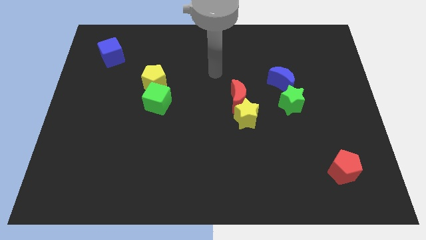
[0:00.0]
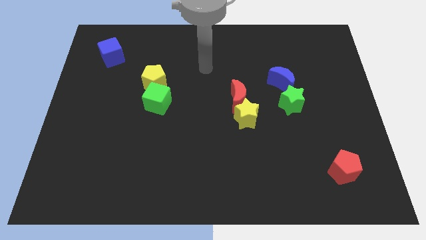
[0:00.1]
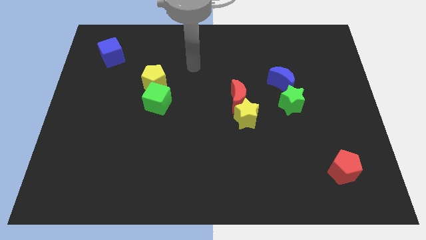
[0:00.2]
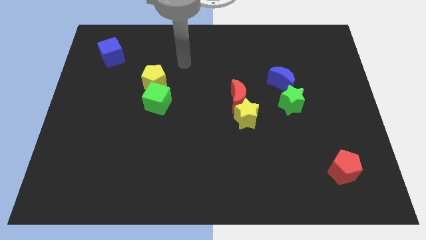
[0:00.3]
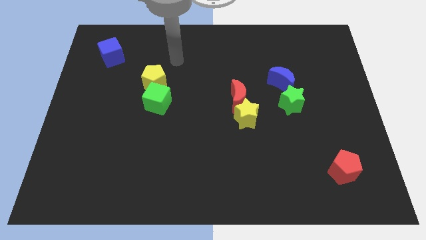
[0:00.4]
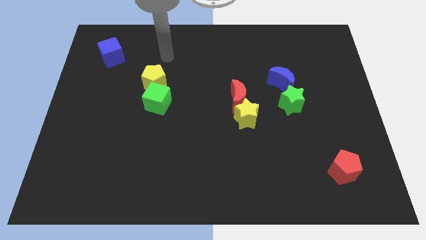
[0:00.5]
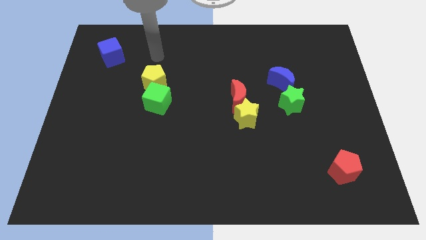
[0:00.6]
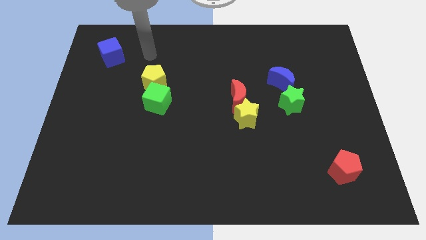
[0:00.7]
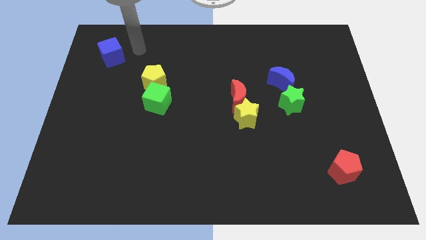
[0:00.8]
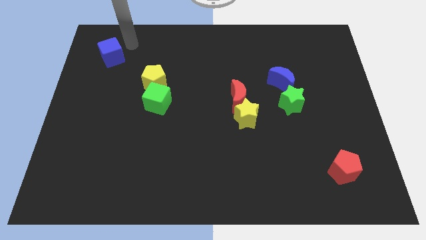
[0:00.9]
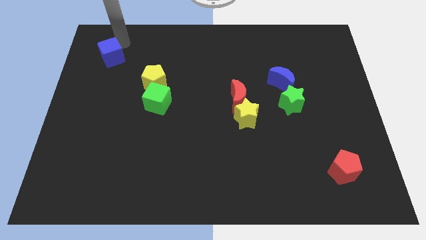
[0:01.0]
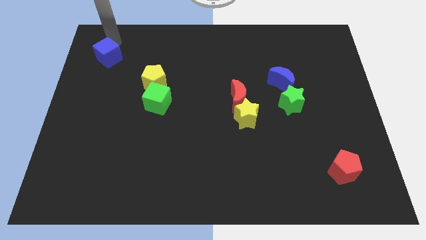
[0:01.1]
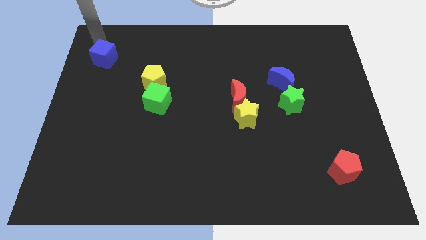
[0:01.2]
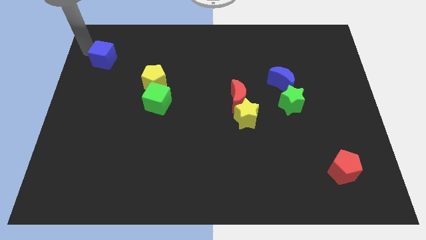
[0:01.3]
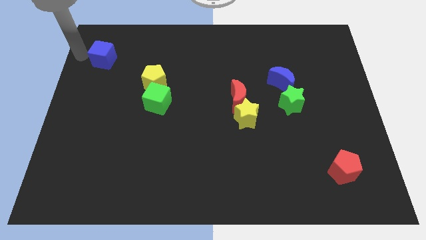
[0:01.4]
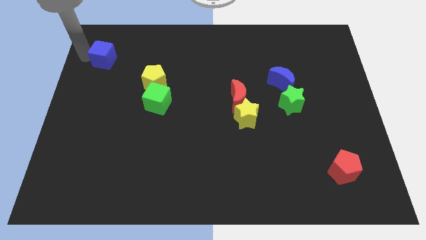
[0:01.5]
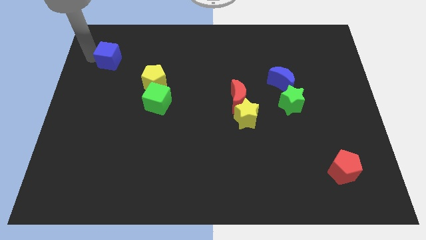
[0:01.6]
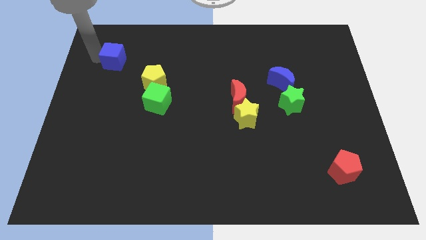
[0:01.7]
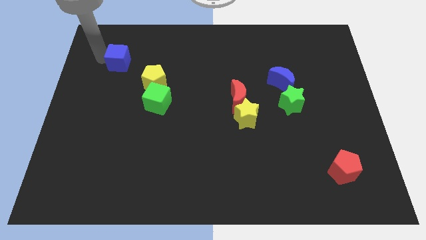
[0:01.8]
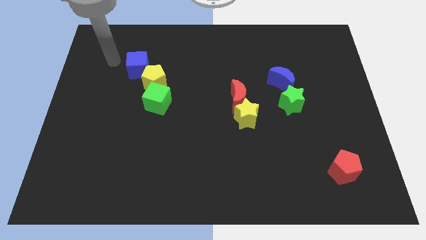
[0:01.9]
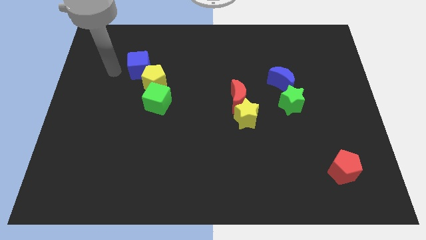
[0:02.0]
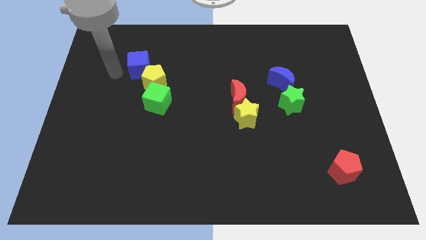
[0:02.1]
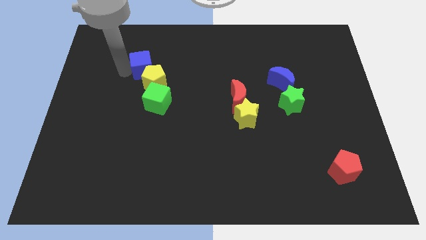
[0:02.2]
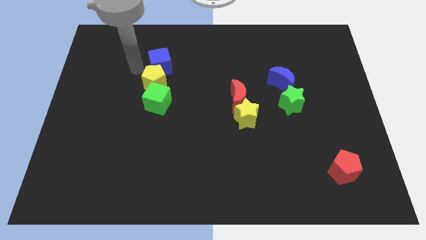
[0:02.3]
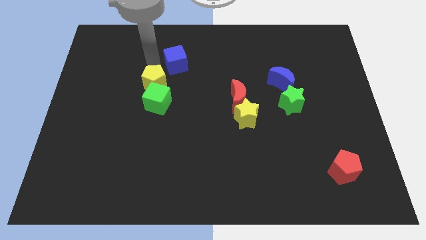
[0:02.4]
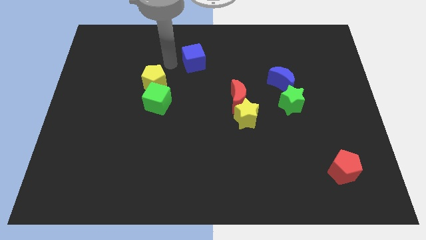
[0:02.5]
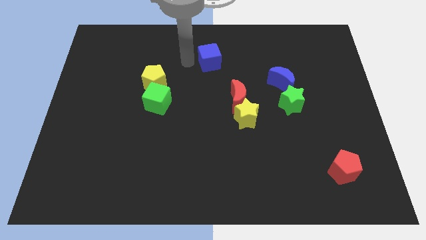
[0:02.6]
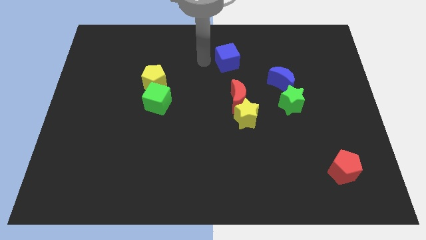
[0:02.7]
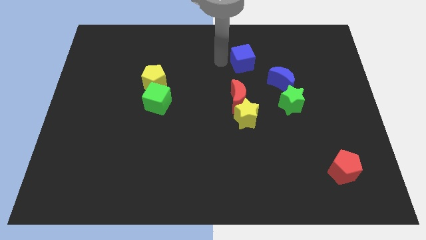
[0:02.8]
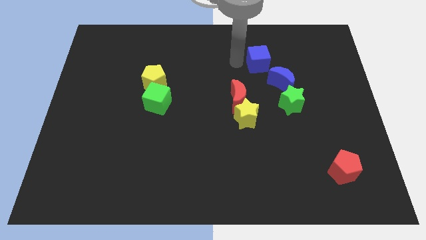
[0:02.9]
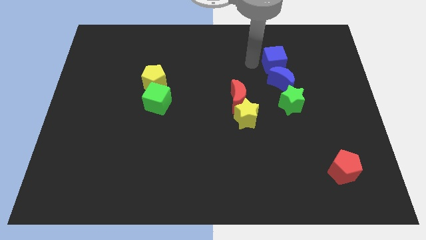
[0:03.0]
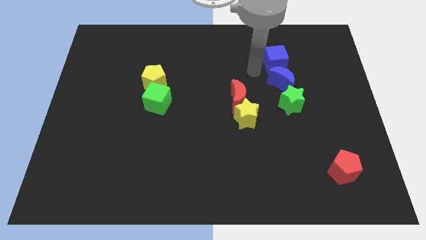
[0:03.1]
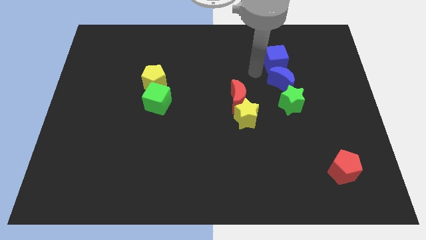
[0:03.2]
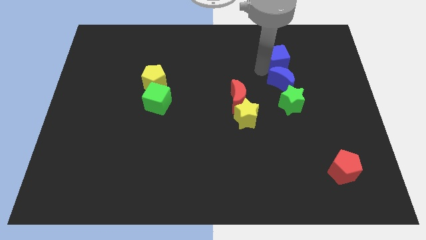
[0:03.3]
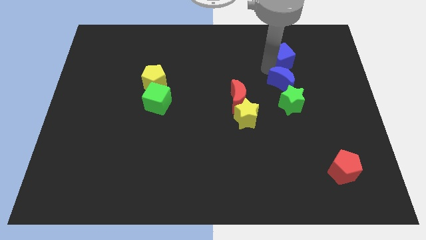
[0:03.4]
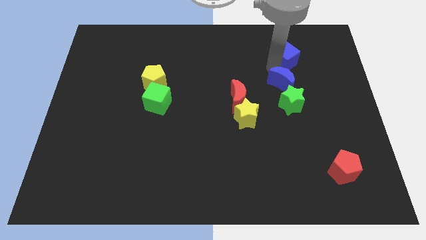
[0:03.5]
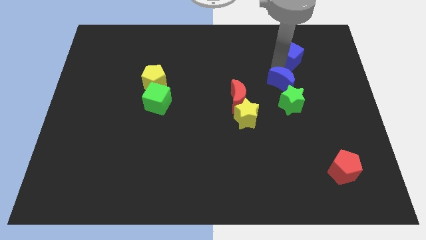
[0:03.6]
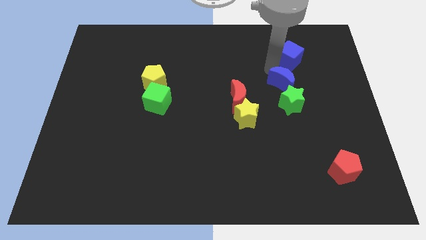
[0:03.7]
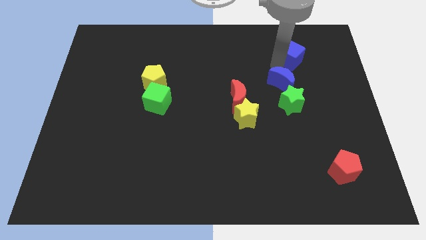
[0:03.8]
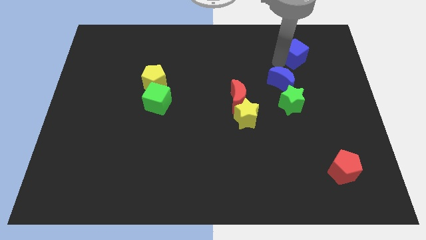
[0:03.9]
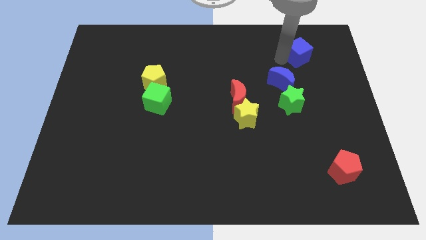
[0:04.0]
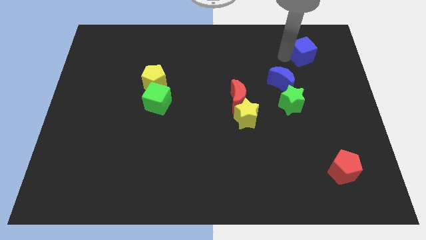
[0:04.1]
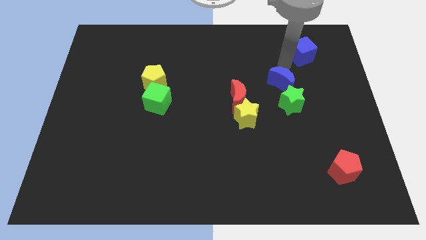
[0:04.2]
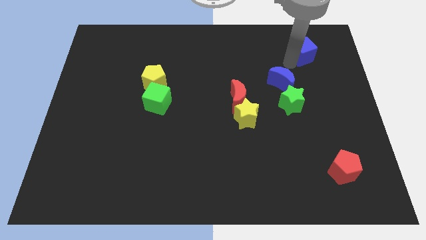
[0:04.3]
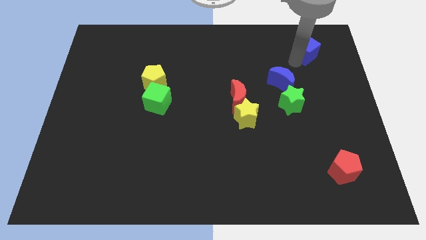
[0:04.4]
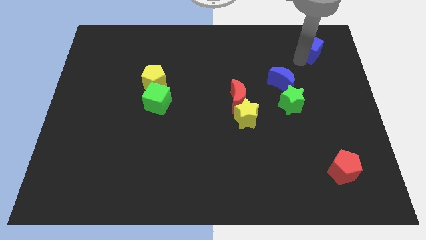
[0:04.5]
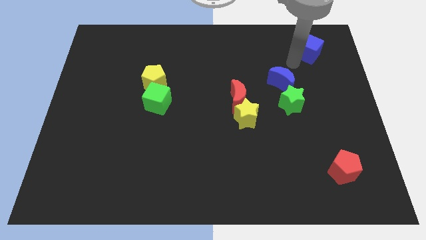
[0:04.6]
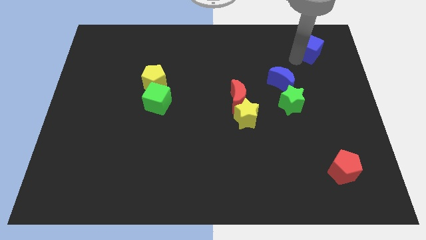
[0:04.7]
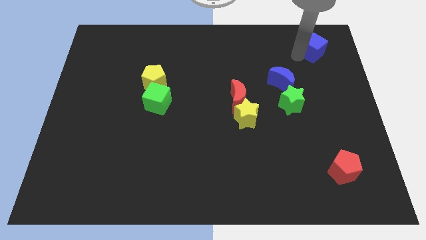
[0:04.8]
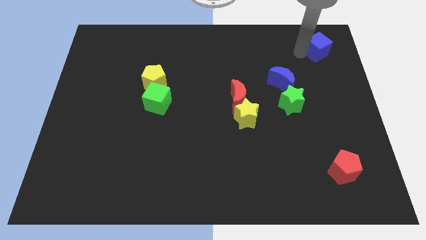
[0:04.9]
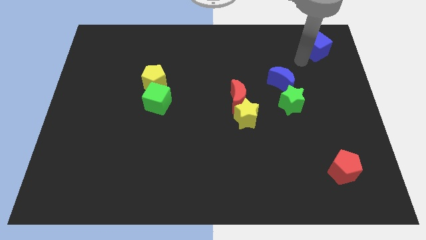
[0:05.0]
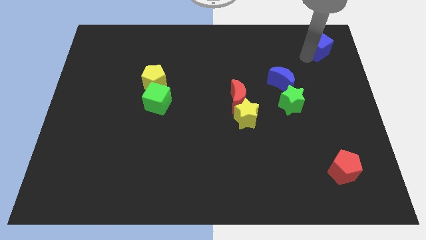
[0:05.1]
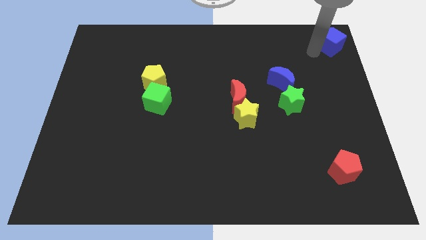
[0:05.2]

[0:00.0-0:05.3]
slide the blue cube to the top right of the board

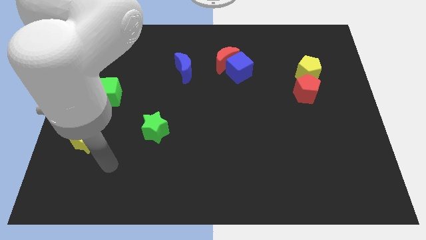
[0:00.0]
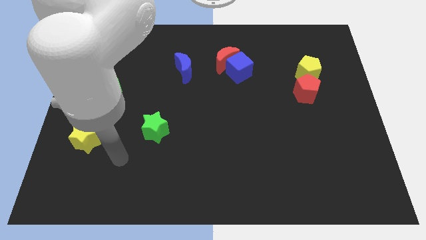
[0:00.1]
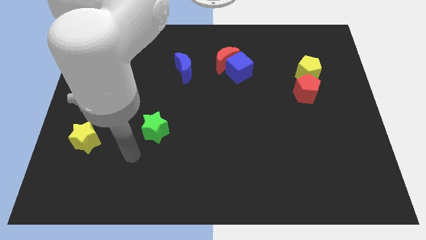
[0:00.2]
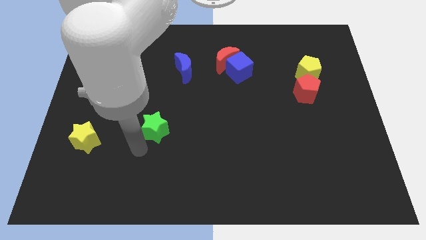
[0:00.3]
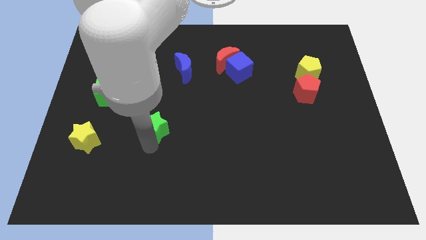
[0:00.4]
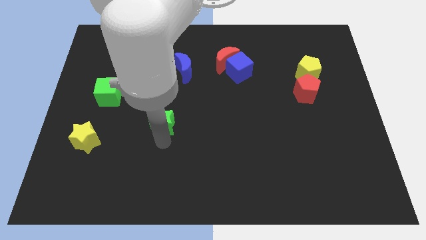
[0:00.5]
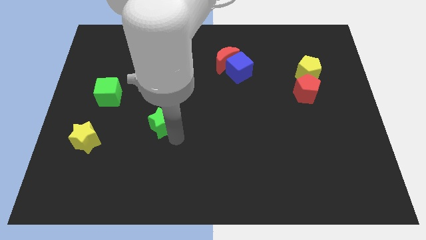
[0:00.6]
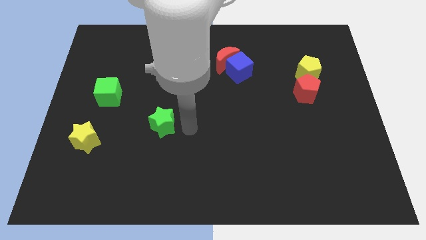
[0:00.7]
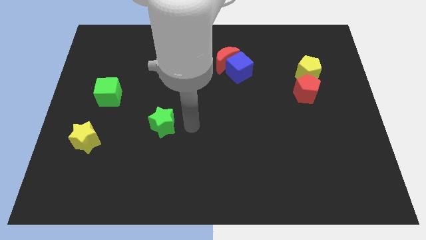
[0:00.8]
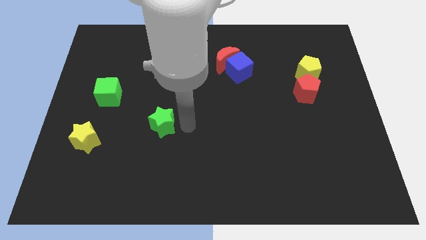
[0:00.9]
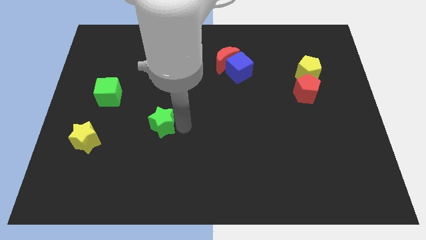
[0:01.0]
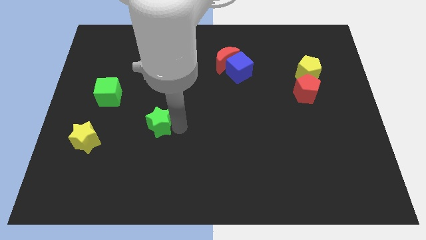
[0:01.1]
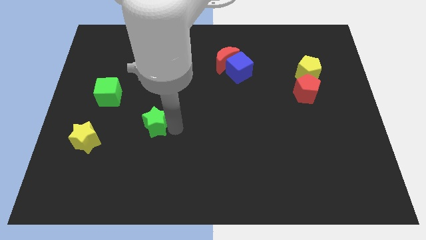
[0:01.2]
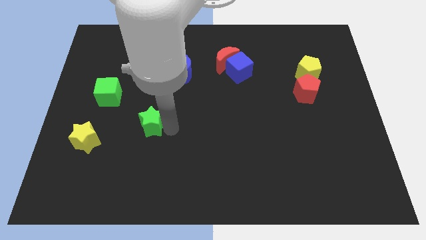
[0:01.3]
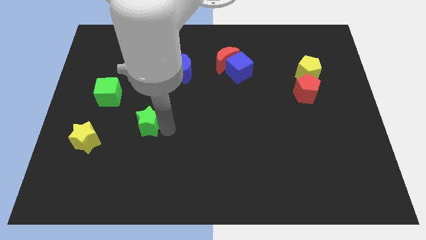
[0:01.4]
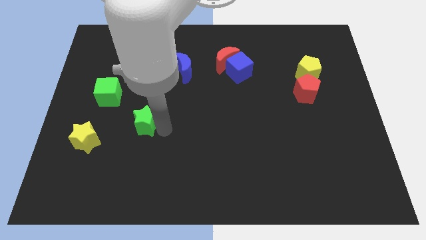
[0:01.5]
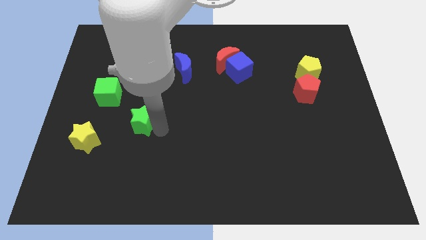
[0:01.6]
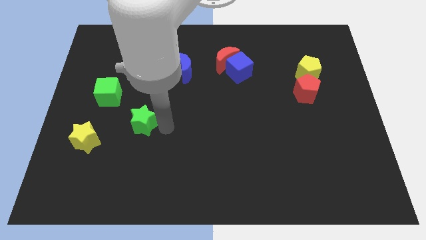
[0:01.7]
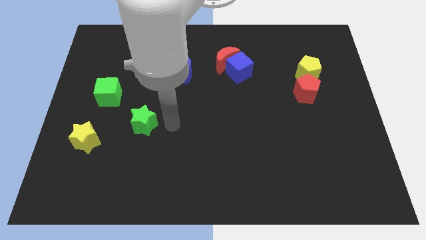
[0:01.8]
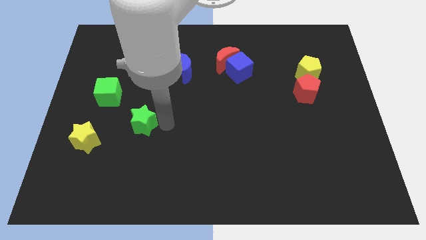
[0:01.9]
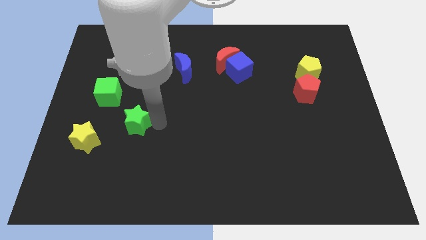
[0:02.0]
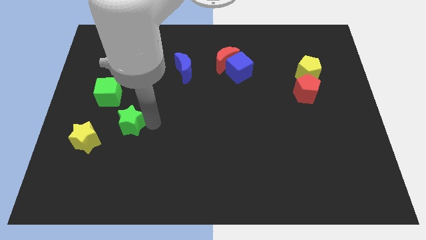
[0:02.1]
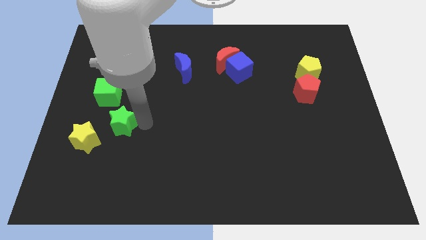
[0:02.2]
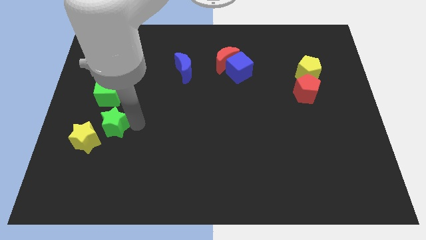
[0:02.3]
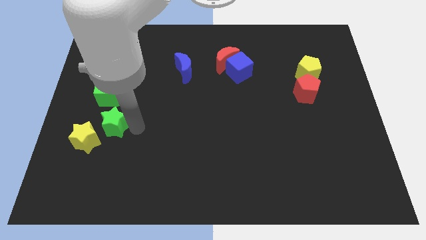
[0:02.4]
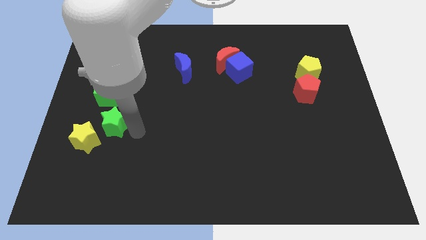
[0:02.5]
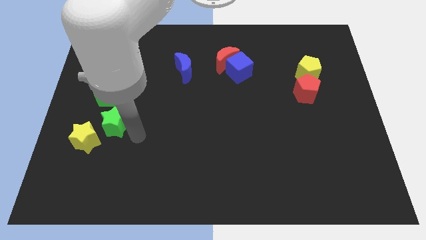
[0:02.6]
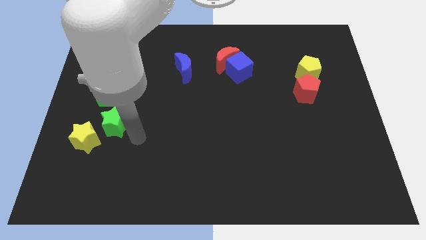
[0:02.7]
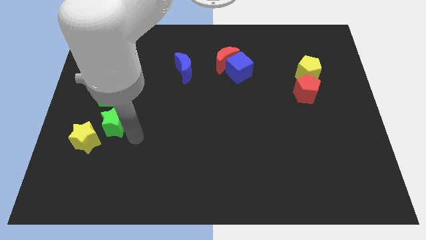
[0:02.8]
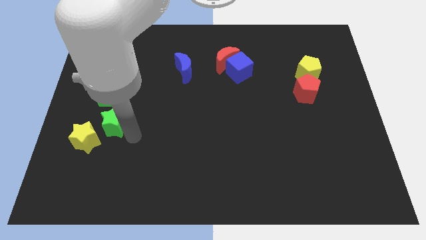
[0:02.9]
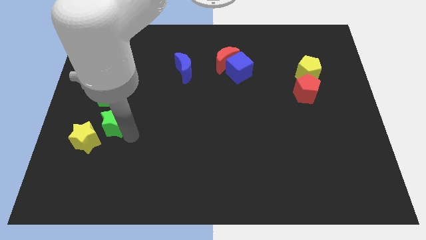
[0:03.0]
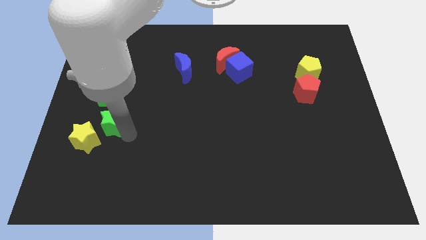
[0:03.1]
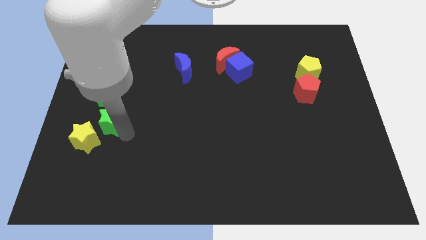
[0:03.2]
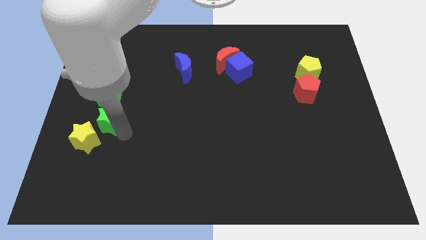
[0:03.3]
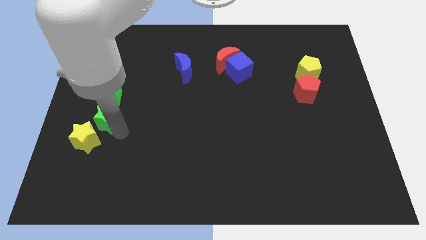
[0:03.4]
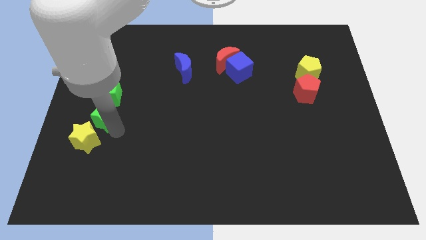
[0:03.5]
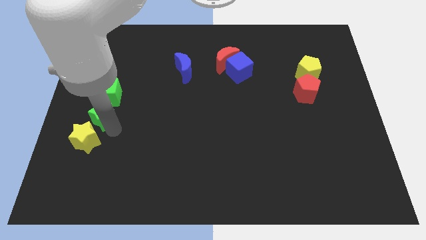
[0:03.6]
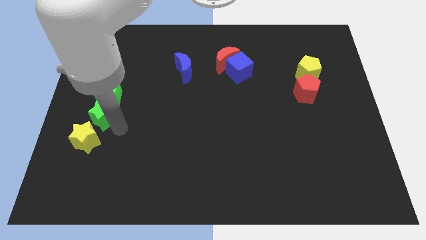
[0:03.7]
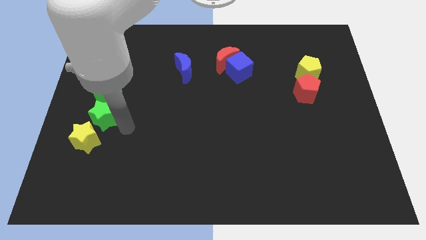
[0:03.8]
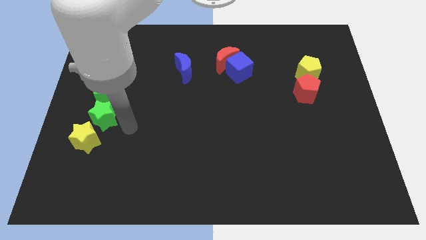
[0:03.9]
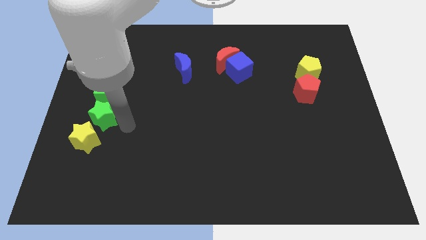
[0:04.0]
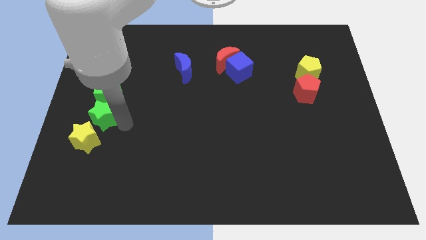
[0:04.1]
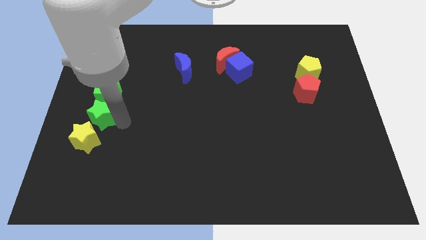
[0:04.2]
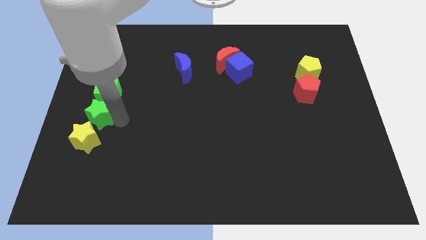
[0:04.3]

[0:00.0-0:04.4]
move the green star to the center left
